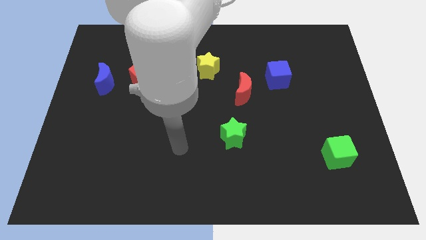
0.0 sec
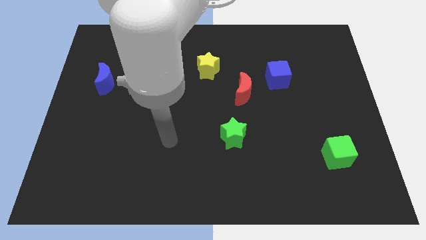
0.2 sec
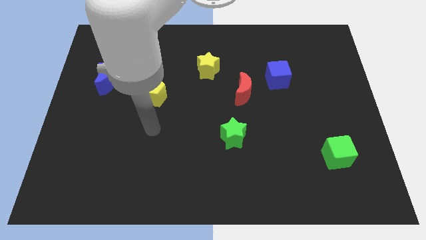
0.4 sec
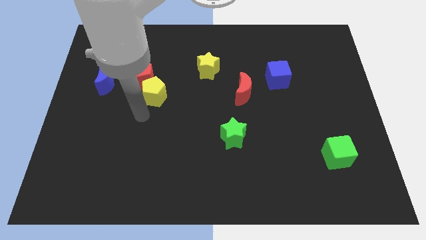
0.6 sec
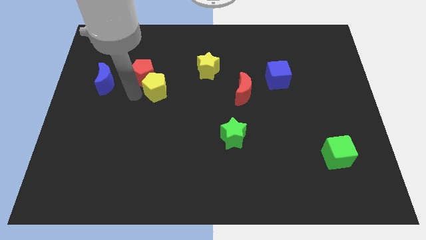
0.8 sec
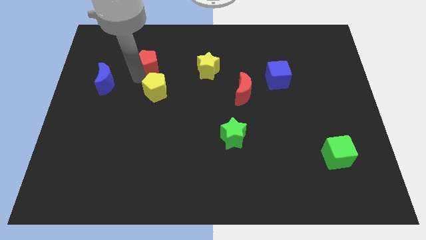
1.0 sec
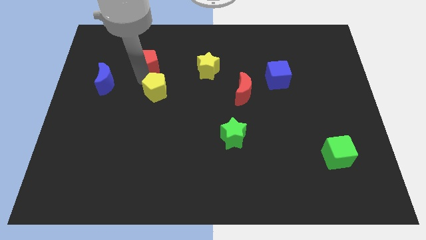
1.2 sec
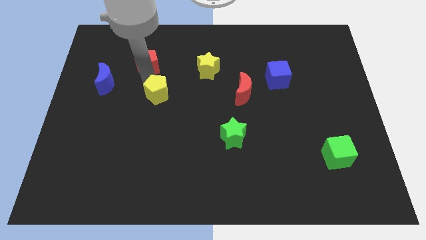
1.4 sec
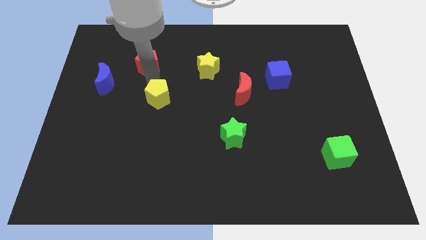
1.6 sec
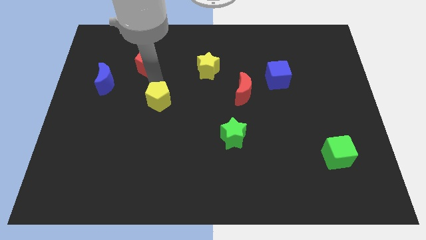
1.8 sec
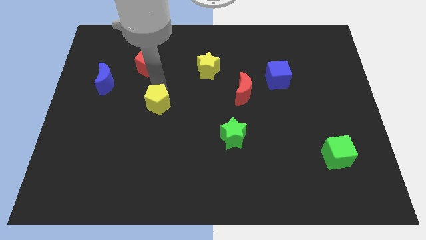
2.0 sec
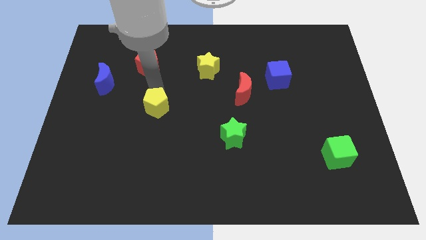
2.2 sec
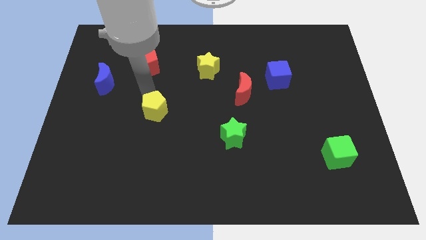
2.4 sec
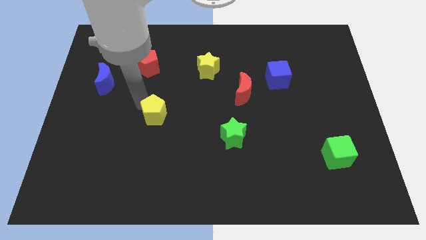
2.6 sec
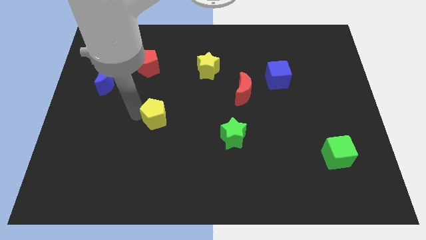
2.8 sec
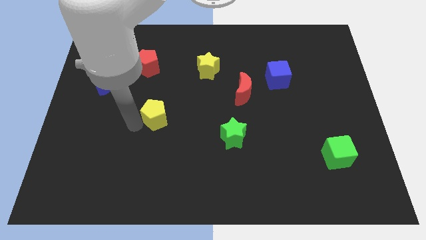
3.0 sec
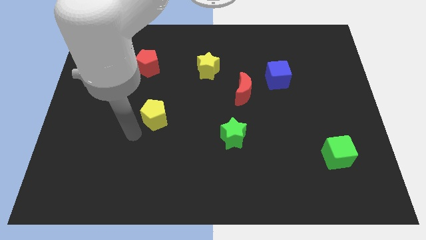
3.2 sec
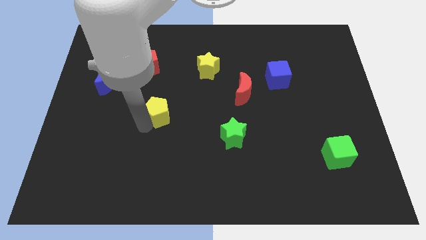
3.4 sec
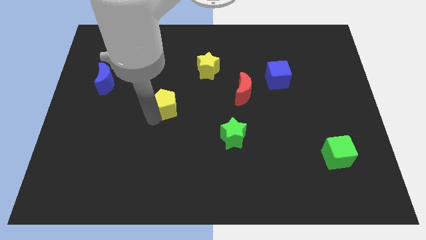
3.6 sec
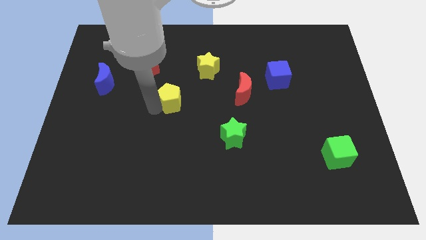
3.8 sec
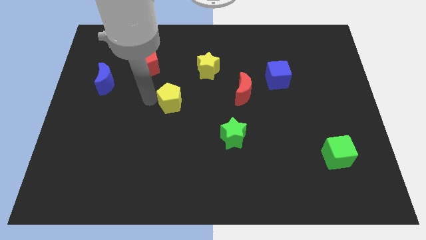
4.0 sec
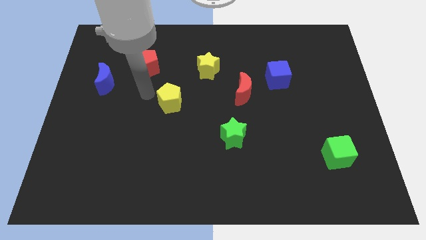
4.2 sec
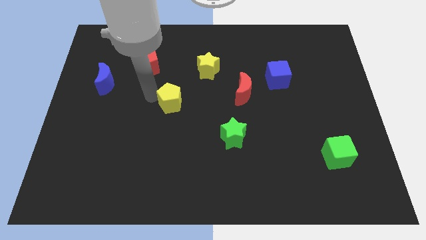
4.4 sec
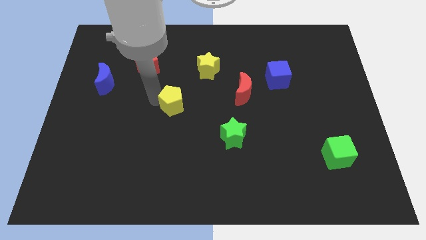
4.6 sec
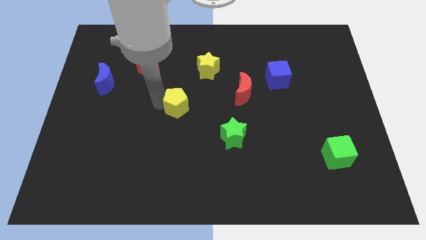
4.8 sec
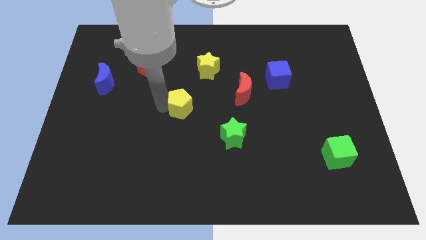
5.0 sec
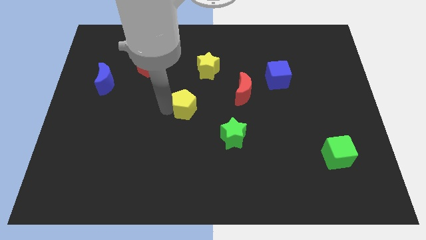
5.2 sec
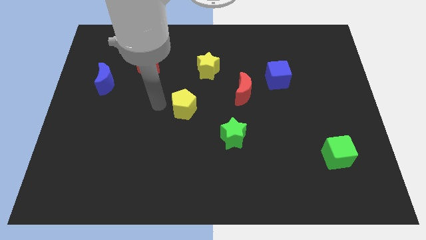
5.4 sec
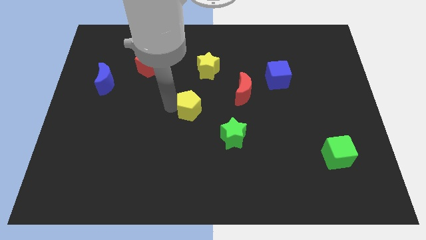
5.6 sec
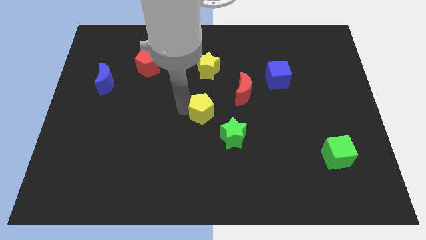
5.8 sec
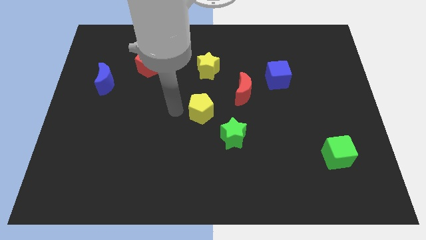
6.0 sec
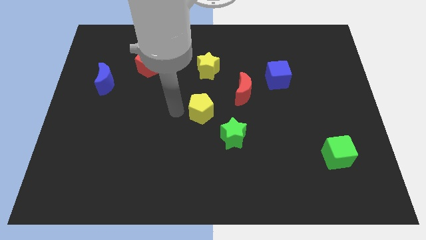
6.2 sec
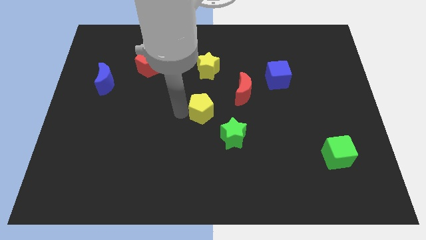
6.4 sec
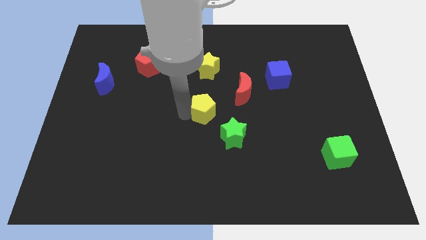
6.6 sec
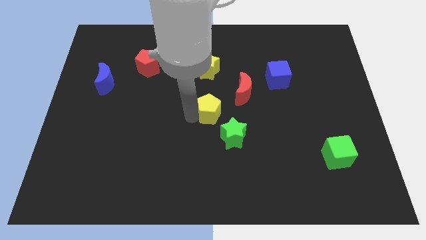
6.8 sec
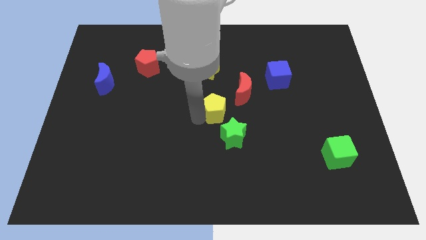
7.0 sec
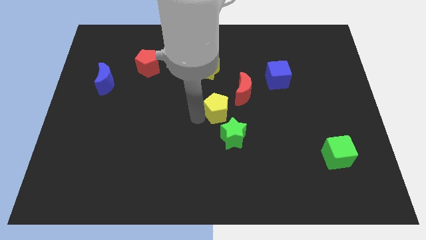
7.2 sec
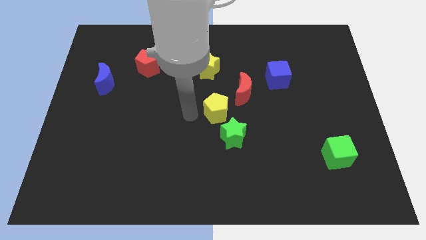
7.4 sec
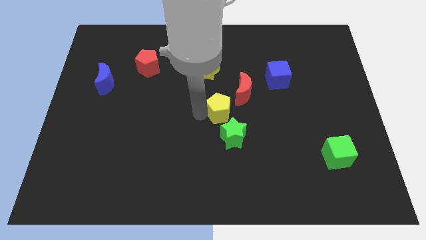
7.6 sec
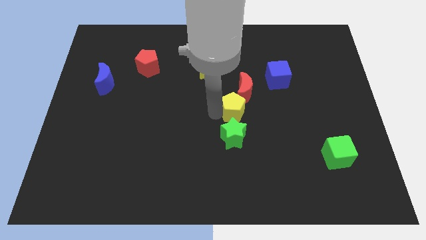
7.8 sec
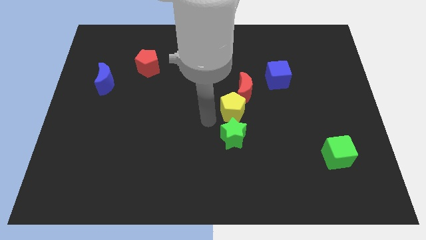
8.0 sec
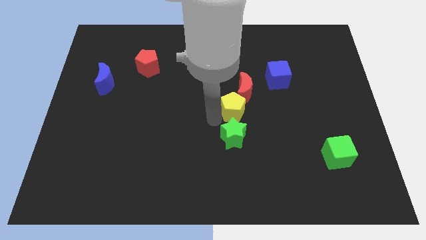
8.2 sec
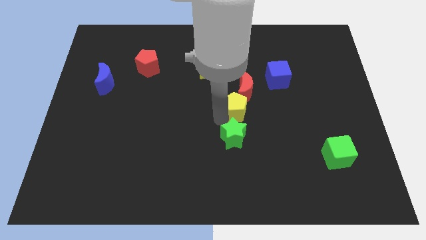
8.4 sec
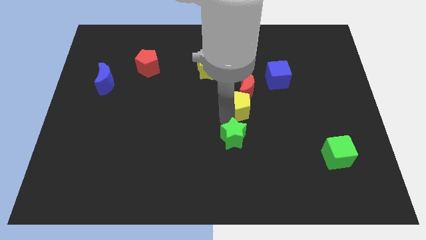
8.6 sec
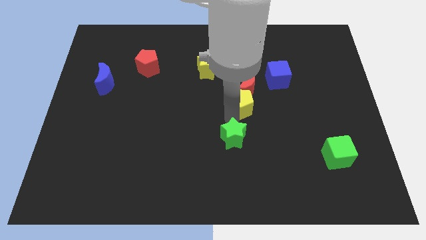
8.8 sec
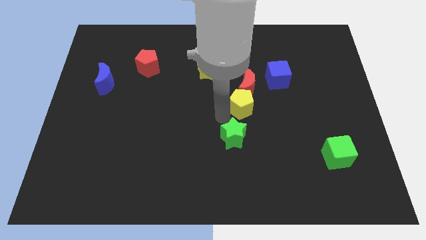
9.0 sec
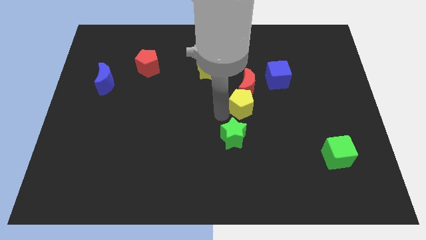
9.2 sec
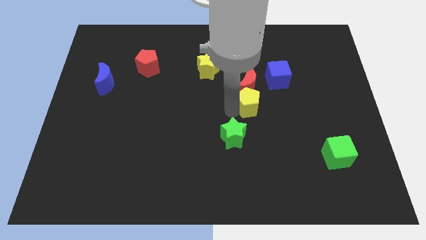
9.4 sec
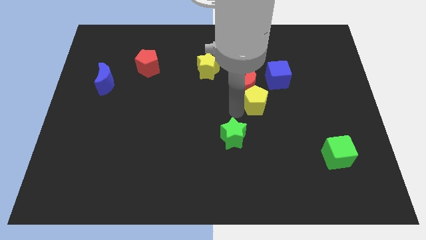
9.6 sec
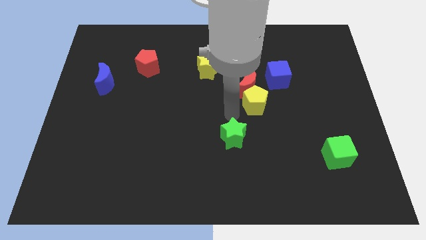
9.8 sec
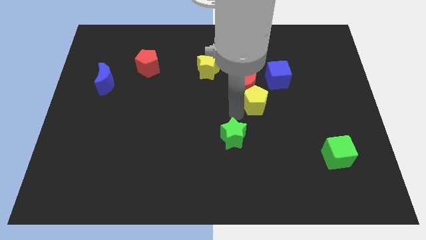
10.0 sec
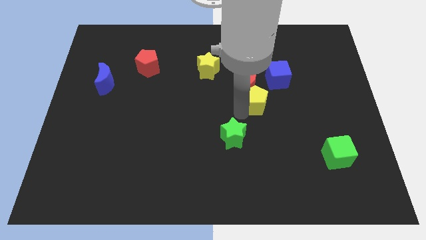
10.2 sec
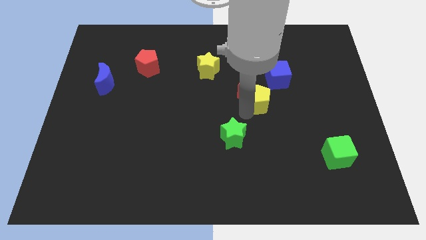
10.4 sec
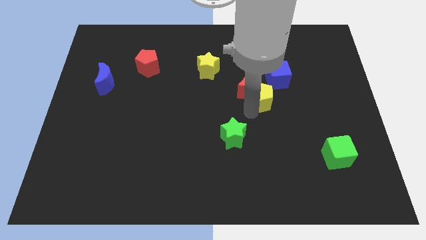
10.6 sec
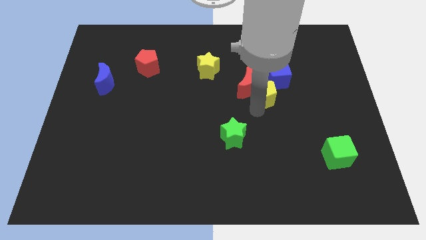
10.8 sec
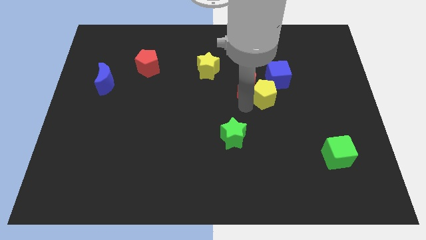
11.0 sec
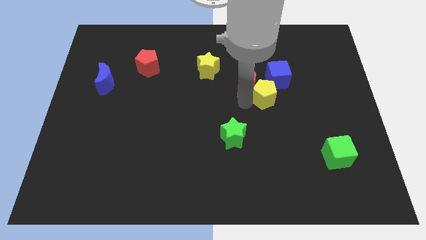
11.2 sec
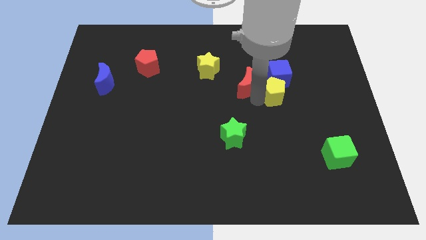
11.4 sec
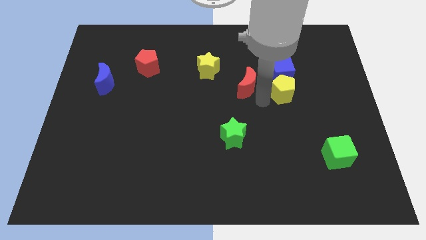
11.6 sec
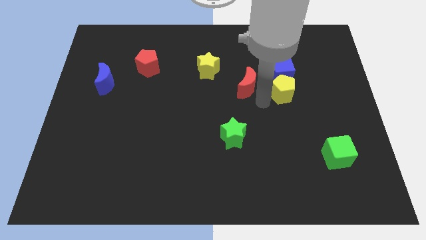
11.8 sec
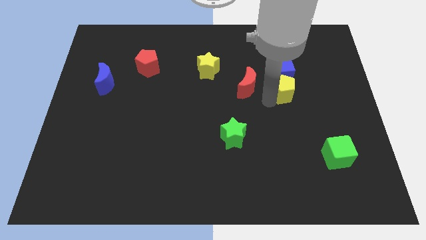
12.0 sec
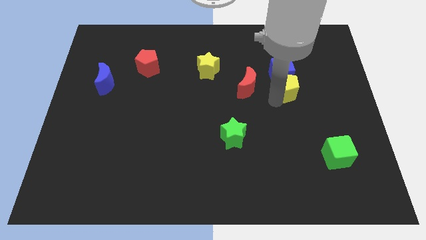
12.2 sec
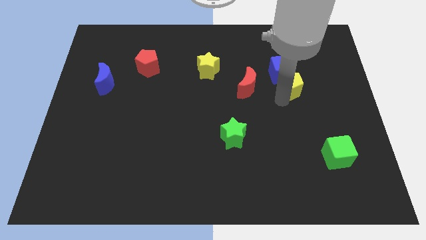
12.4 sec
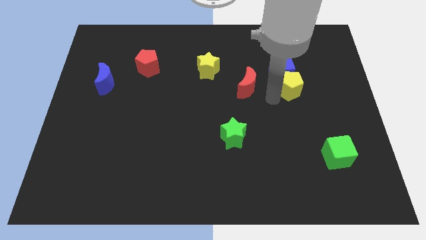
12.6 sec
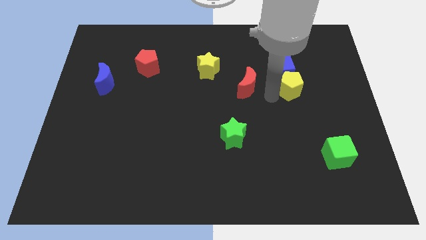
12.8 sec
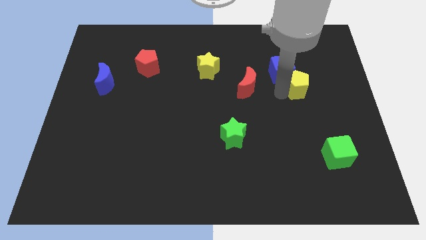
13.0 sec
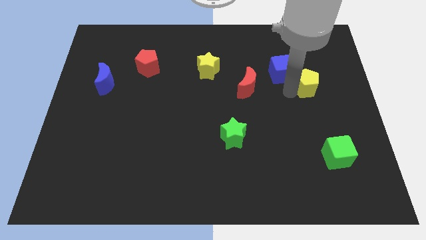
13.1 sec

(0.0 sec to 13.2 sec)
push the yellow pentagon to the right of the blue cube
